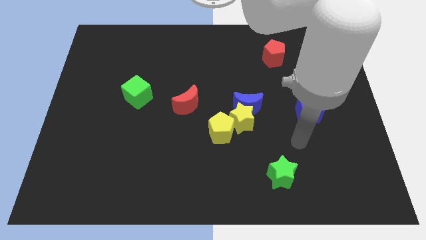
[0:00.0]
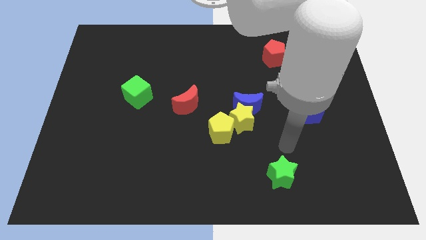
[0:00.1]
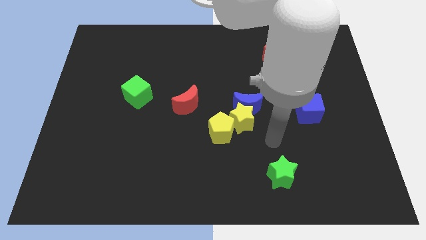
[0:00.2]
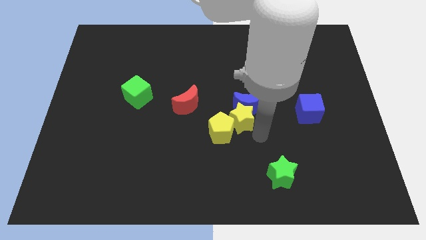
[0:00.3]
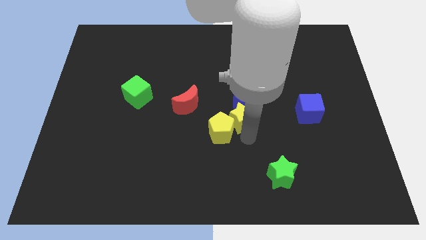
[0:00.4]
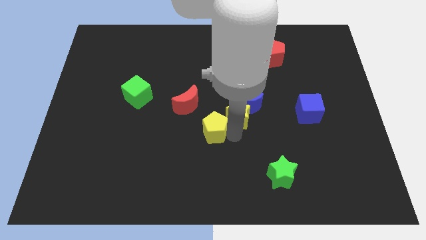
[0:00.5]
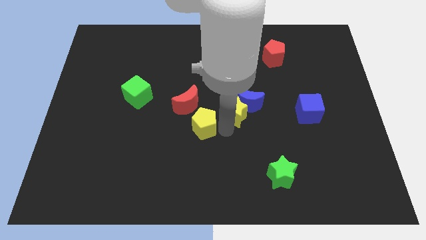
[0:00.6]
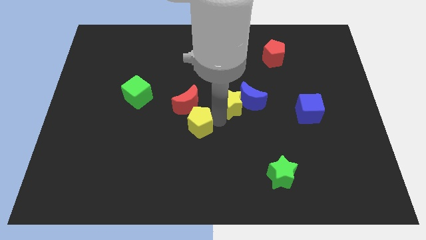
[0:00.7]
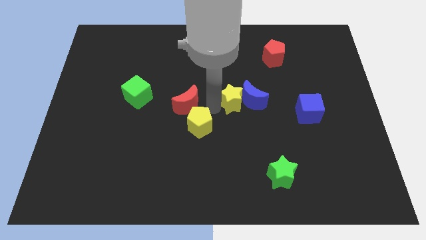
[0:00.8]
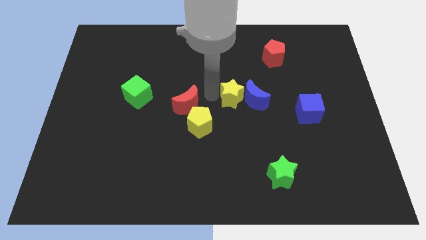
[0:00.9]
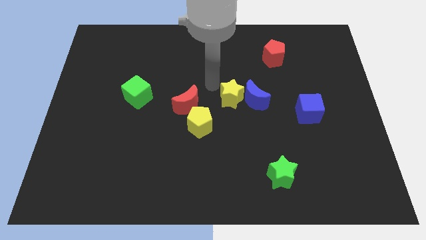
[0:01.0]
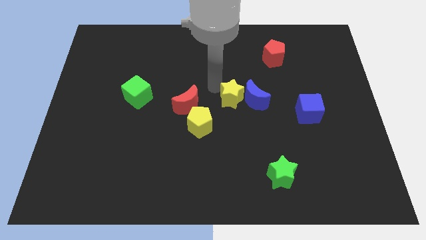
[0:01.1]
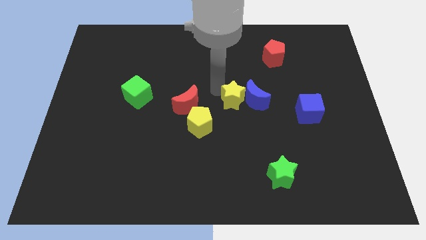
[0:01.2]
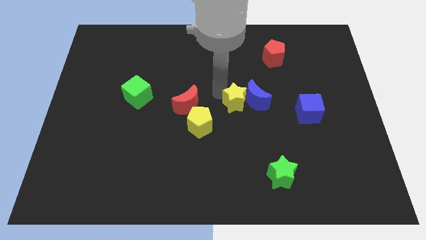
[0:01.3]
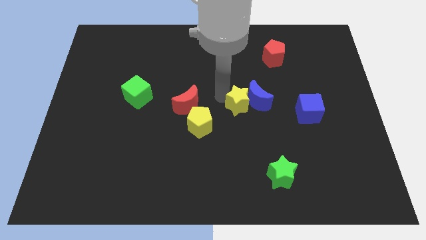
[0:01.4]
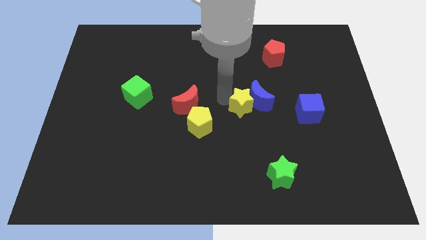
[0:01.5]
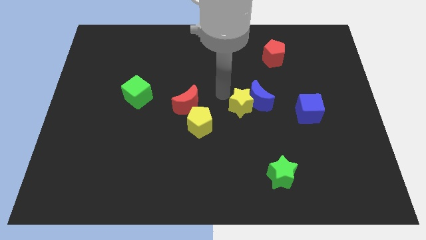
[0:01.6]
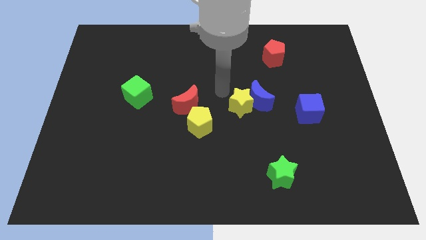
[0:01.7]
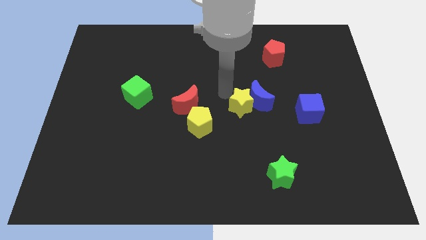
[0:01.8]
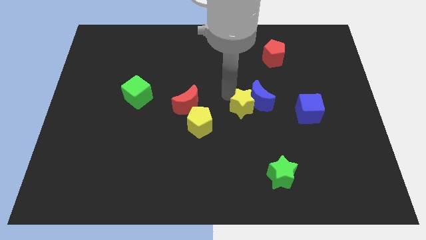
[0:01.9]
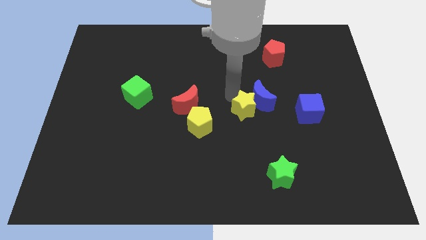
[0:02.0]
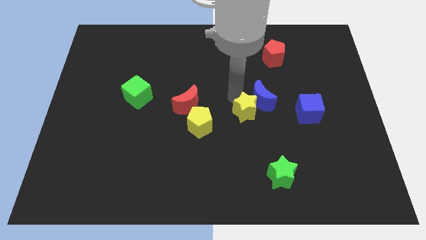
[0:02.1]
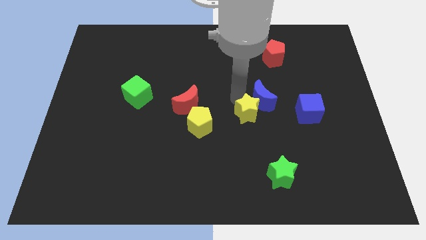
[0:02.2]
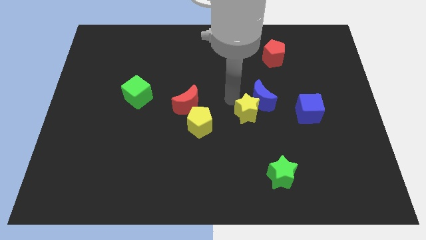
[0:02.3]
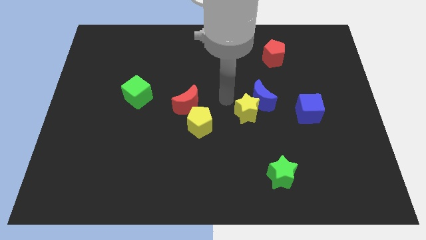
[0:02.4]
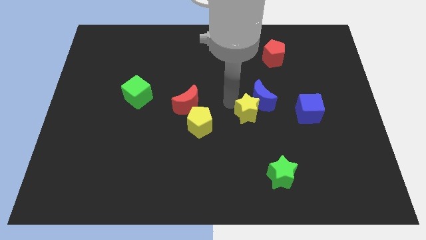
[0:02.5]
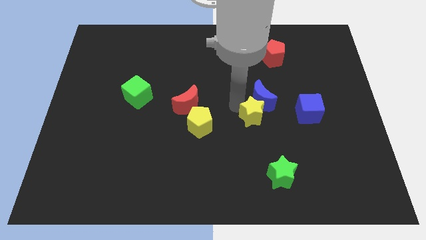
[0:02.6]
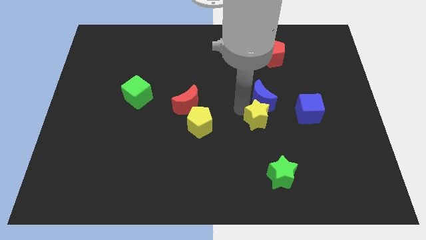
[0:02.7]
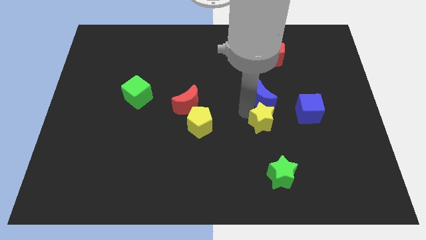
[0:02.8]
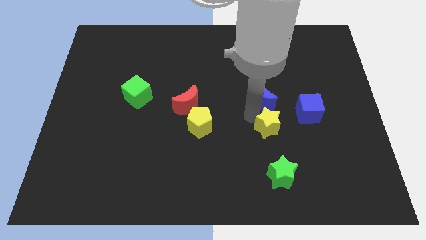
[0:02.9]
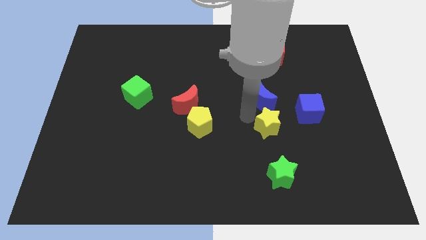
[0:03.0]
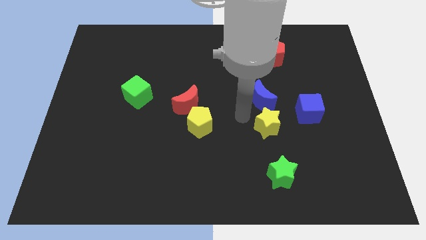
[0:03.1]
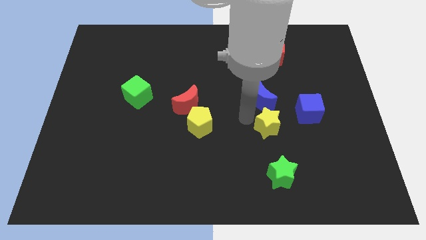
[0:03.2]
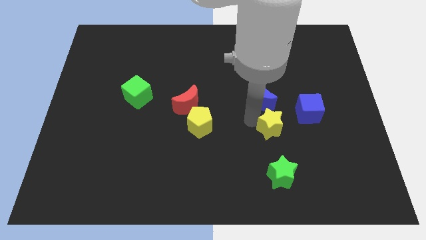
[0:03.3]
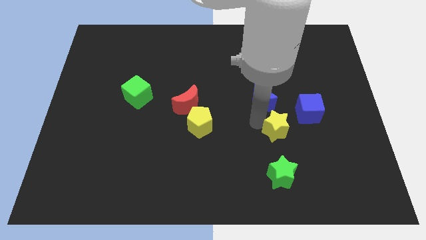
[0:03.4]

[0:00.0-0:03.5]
pull the yellow star apart from the blue moon and yellow pentagon

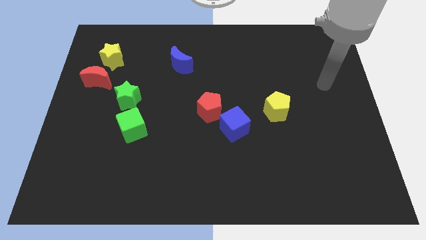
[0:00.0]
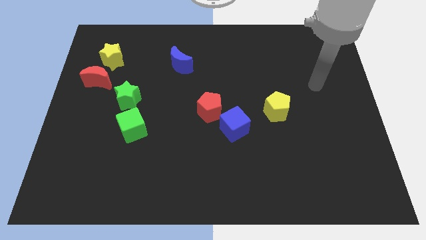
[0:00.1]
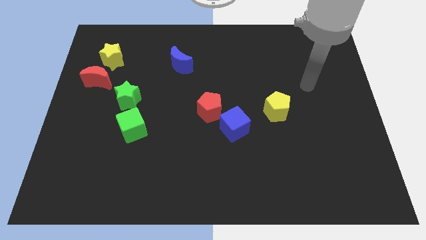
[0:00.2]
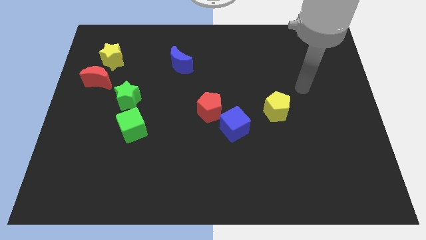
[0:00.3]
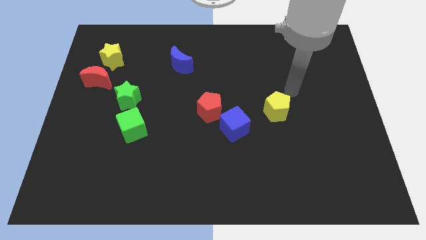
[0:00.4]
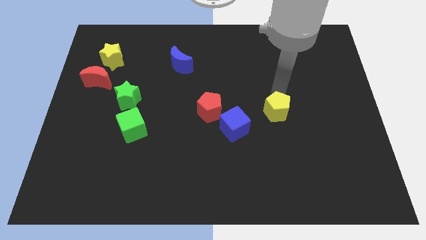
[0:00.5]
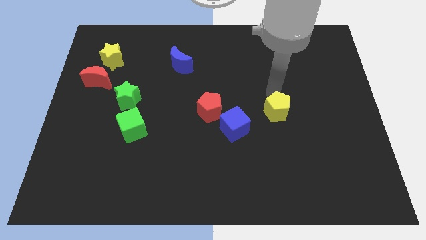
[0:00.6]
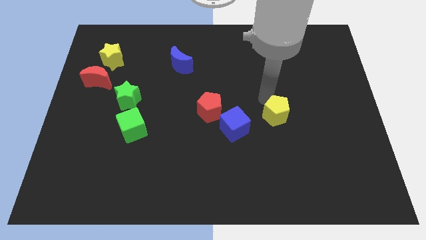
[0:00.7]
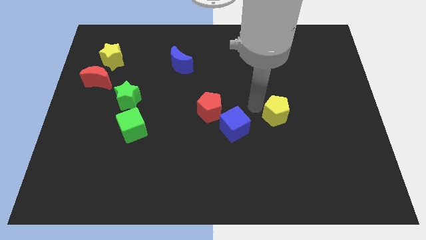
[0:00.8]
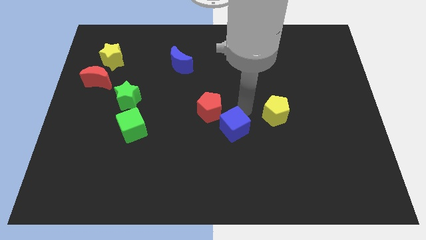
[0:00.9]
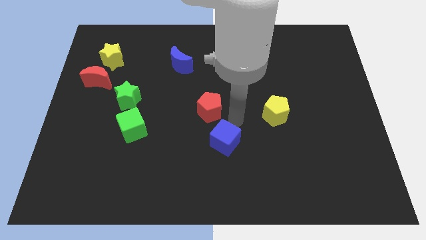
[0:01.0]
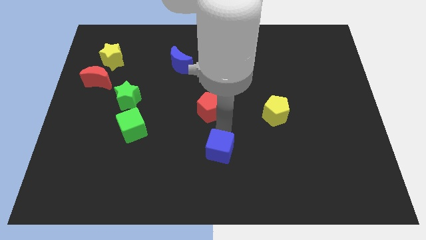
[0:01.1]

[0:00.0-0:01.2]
pull the red pentagon apart from the blue cube

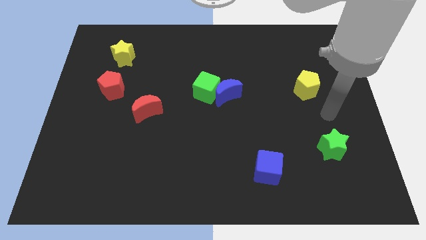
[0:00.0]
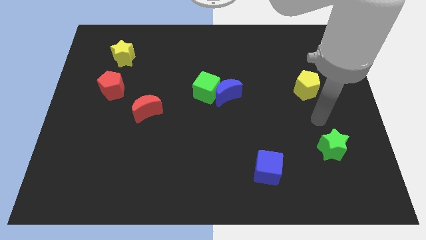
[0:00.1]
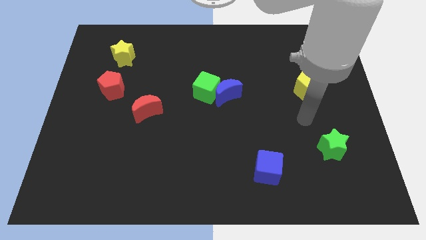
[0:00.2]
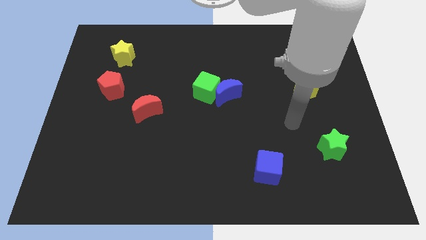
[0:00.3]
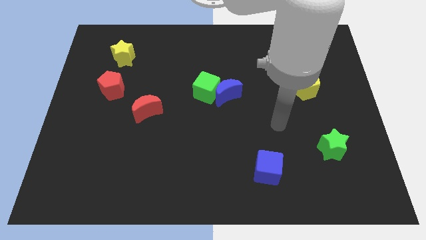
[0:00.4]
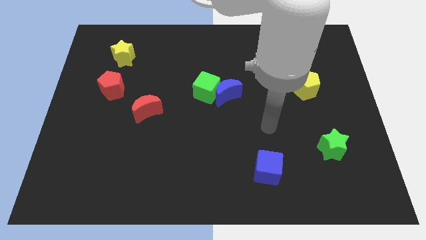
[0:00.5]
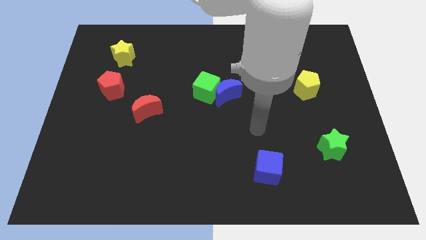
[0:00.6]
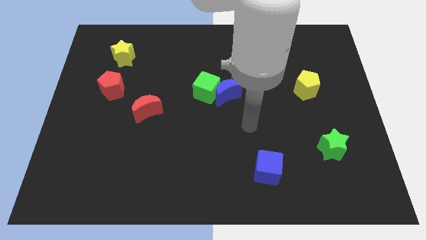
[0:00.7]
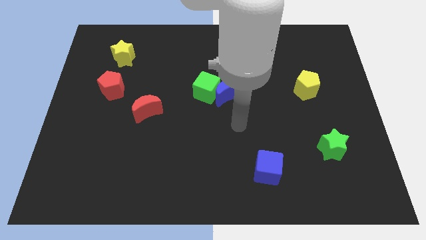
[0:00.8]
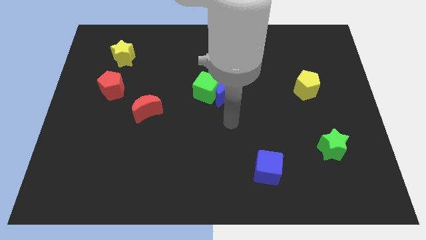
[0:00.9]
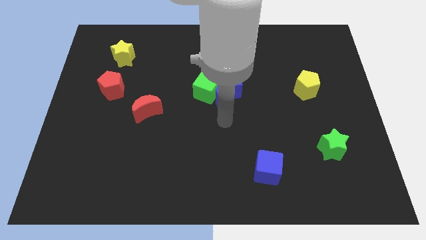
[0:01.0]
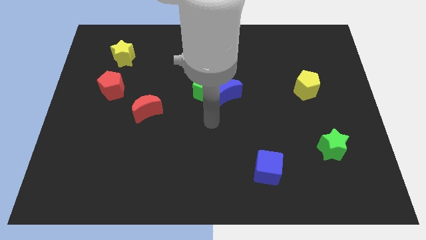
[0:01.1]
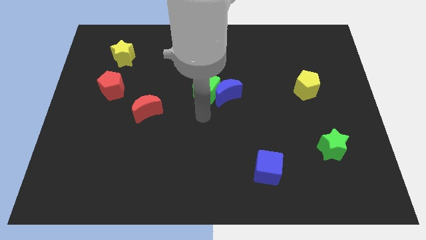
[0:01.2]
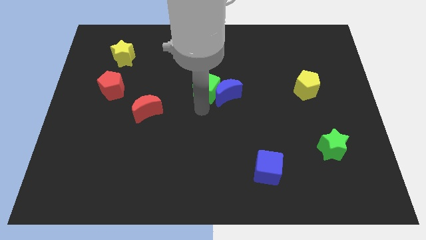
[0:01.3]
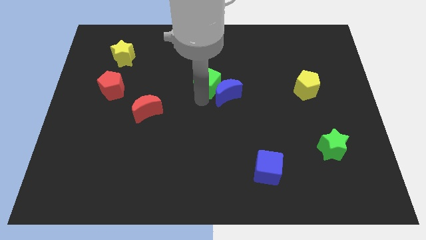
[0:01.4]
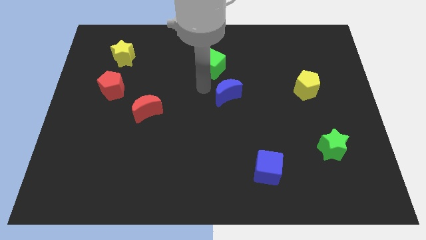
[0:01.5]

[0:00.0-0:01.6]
separate the blue moon from the green cube

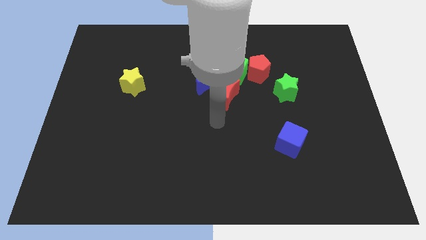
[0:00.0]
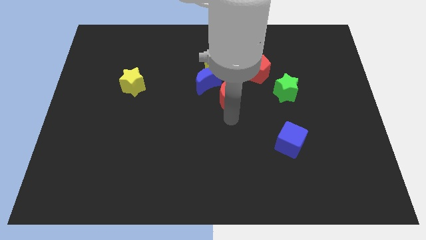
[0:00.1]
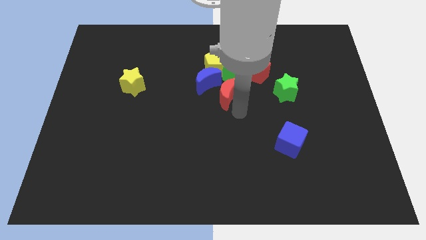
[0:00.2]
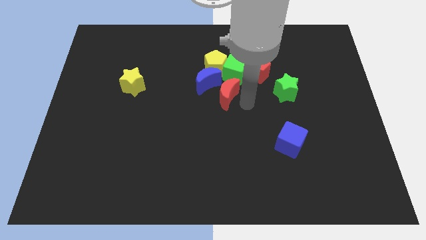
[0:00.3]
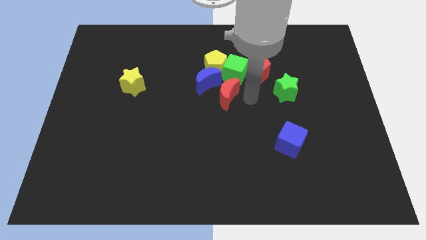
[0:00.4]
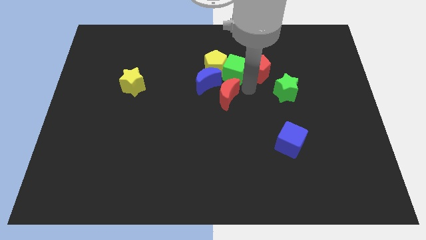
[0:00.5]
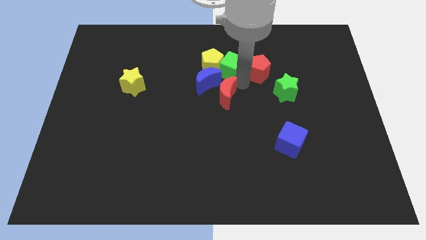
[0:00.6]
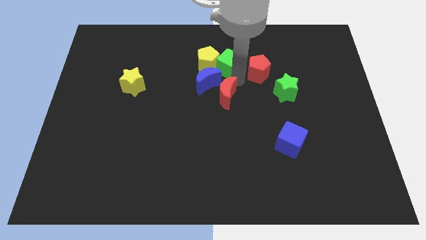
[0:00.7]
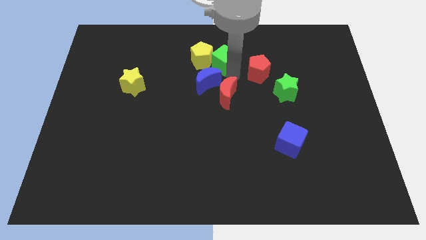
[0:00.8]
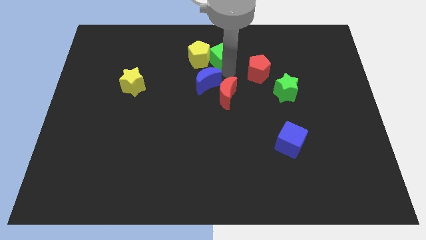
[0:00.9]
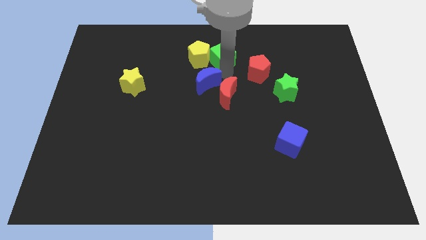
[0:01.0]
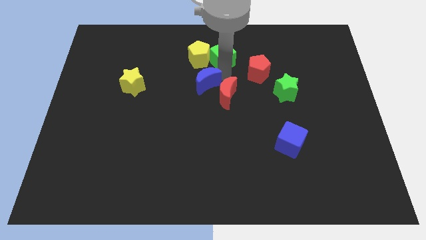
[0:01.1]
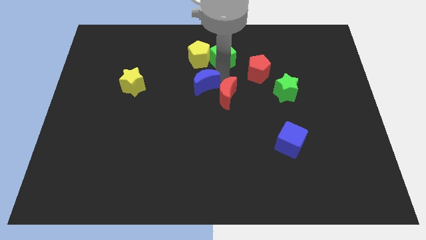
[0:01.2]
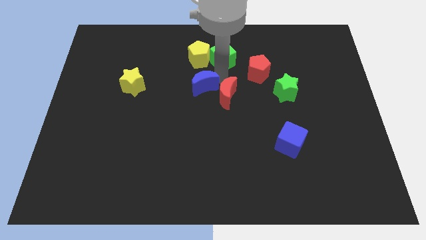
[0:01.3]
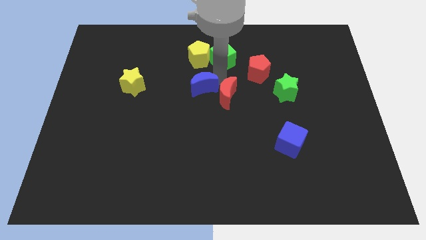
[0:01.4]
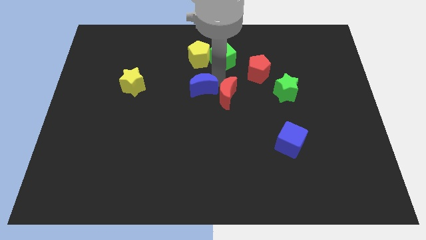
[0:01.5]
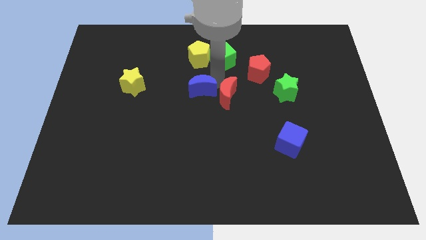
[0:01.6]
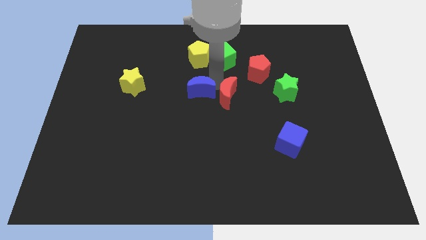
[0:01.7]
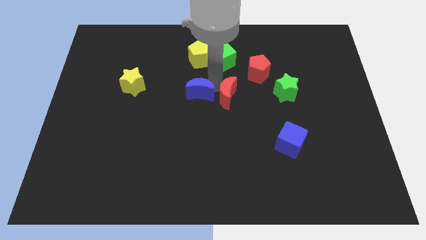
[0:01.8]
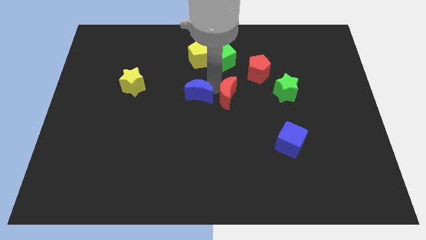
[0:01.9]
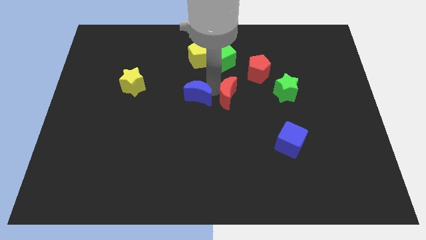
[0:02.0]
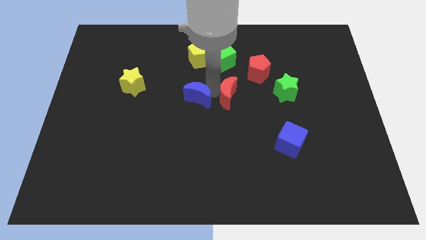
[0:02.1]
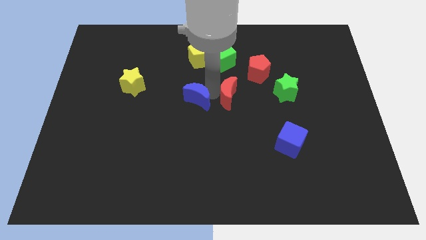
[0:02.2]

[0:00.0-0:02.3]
pull the blue moon apart from the group of blocks

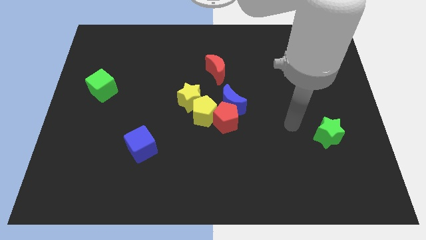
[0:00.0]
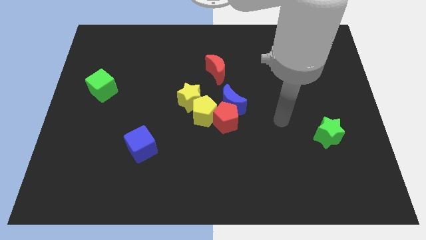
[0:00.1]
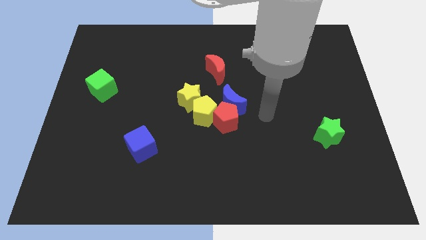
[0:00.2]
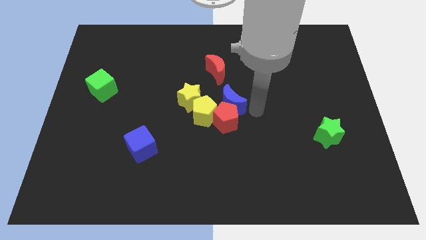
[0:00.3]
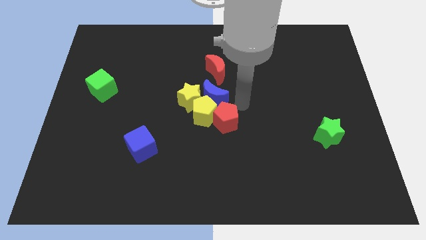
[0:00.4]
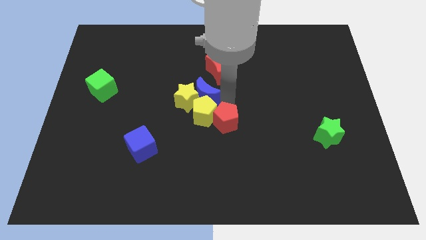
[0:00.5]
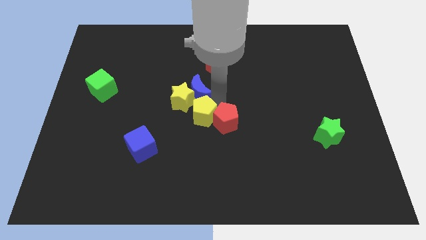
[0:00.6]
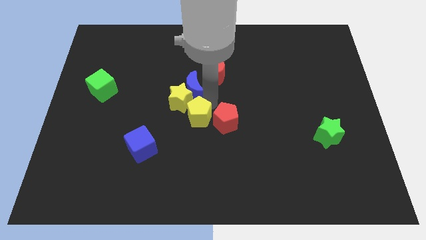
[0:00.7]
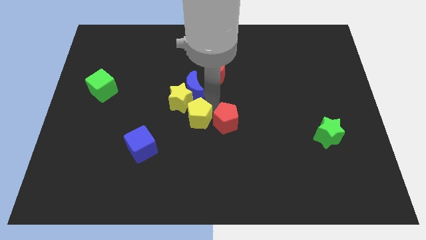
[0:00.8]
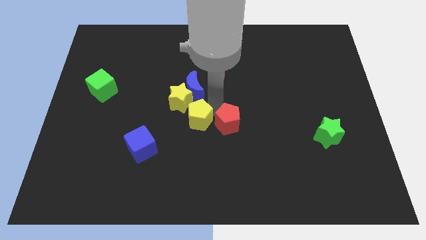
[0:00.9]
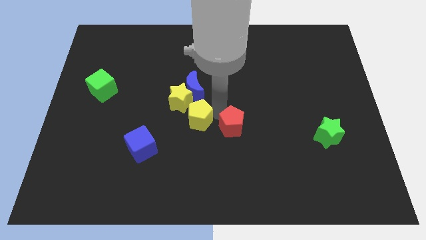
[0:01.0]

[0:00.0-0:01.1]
move the red pentagon away from the blue moon and yellow pentagon
